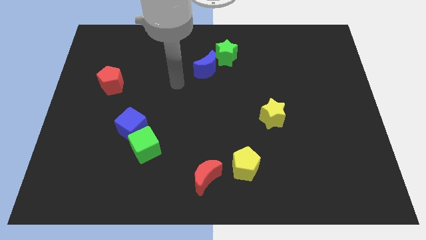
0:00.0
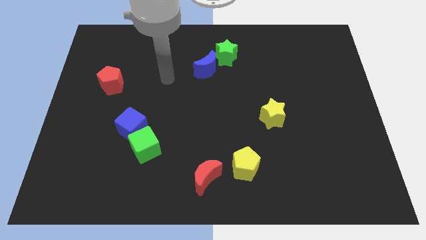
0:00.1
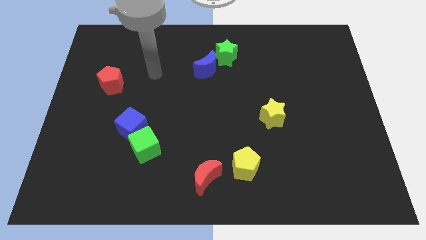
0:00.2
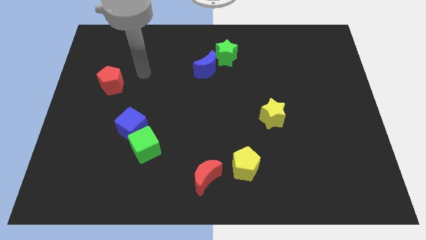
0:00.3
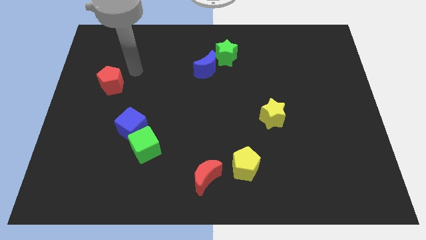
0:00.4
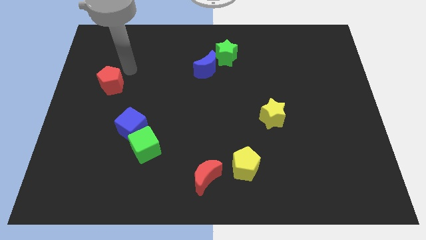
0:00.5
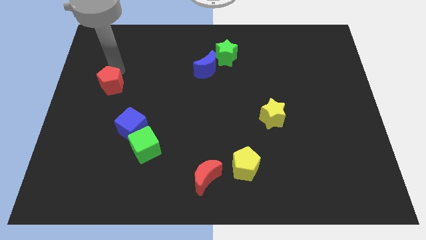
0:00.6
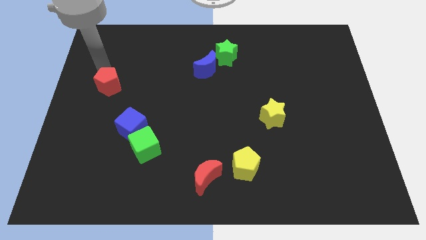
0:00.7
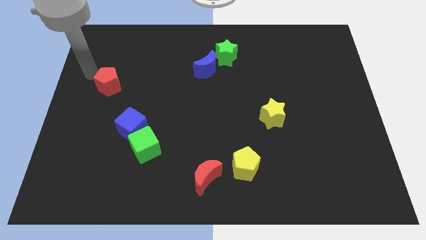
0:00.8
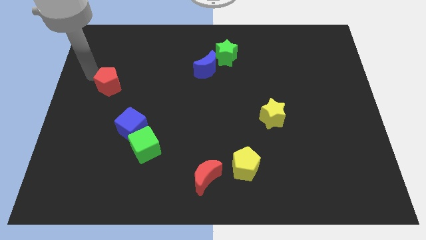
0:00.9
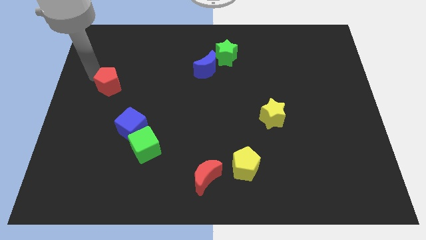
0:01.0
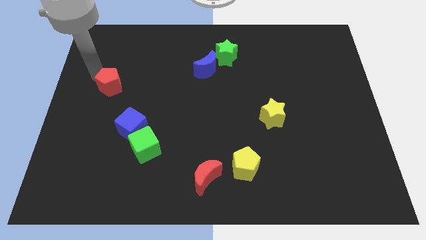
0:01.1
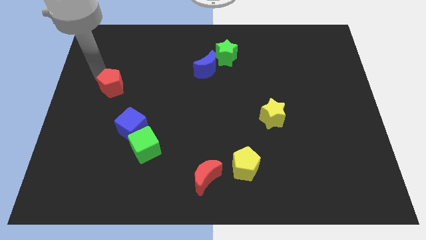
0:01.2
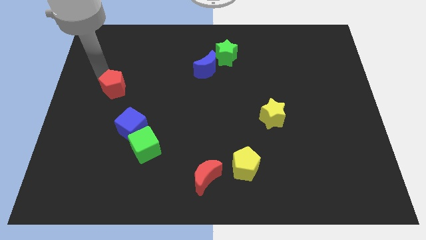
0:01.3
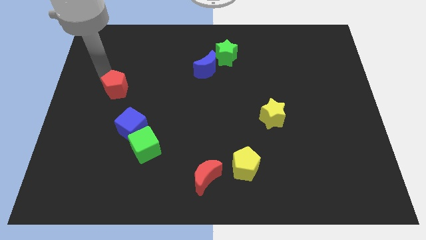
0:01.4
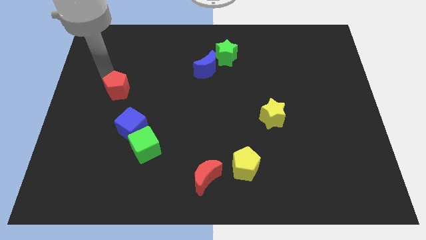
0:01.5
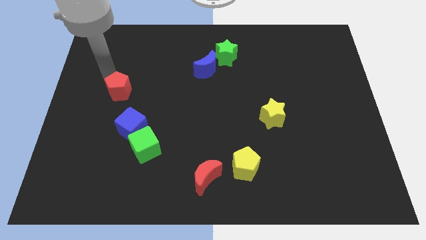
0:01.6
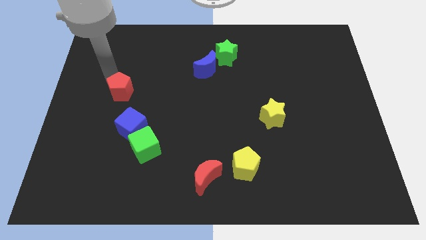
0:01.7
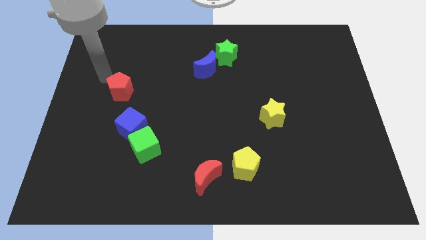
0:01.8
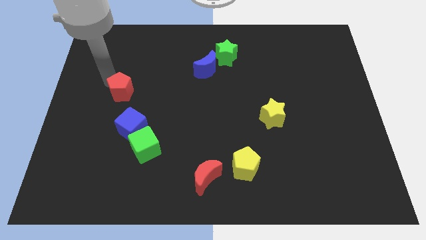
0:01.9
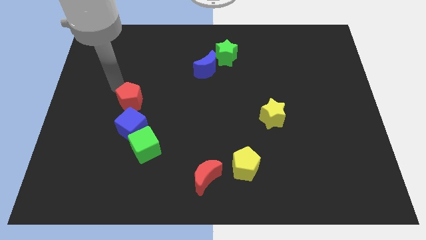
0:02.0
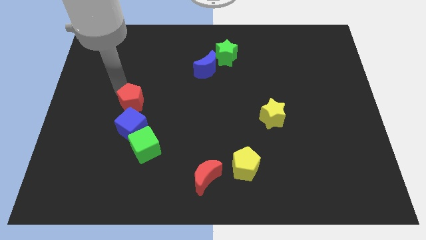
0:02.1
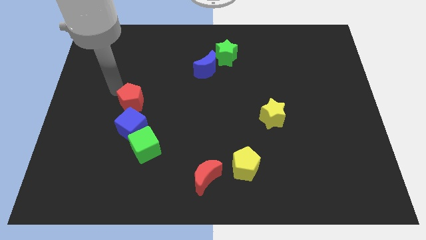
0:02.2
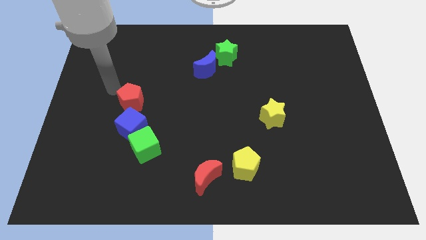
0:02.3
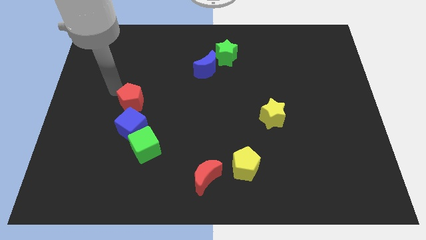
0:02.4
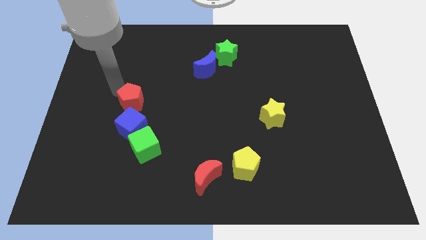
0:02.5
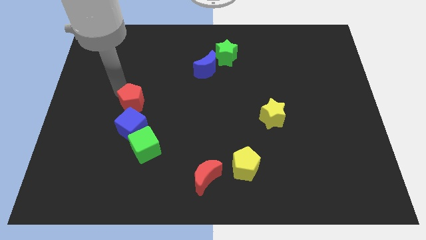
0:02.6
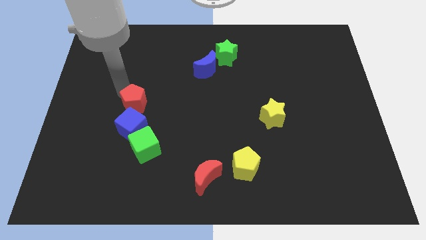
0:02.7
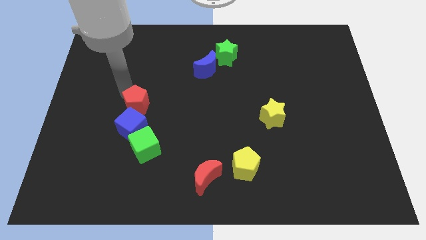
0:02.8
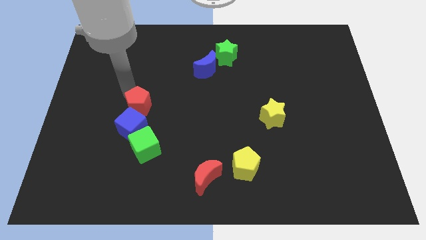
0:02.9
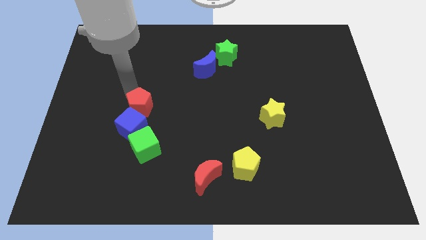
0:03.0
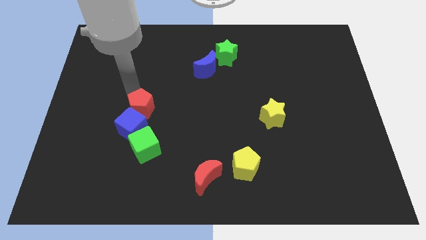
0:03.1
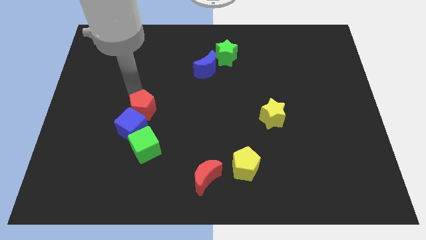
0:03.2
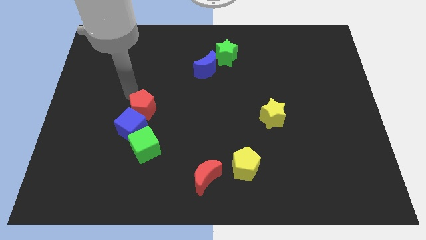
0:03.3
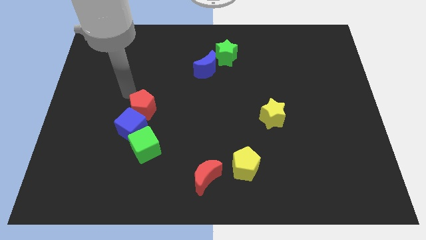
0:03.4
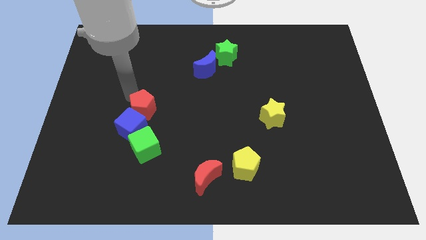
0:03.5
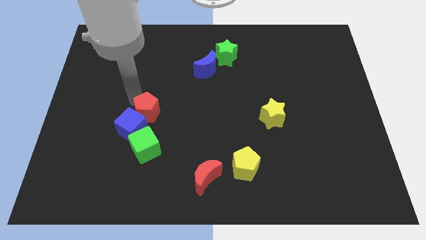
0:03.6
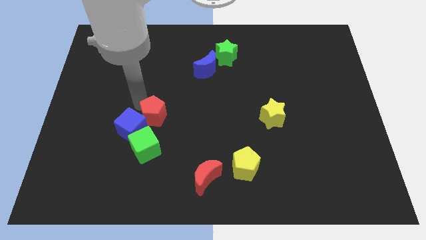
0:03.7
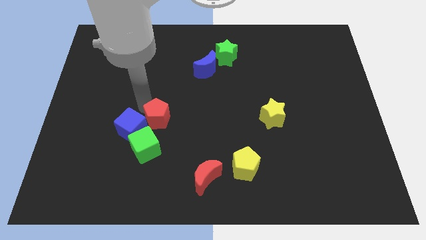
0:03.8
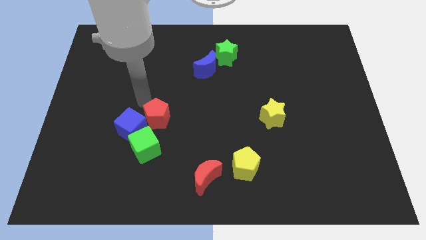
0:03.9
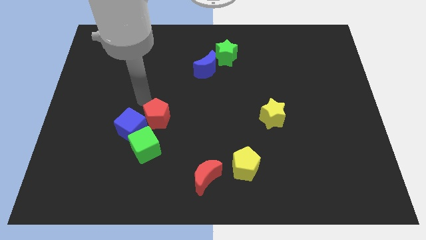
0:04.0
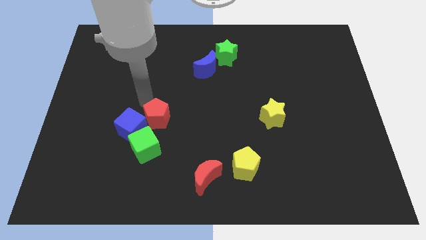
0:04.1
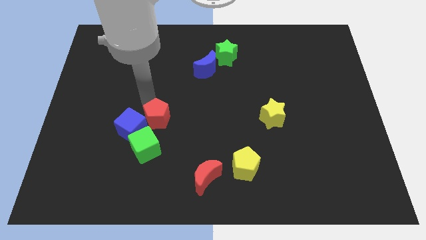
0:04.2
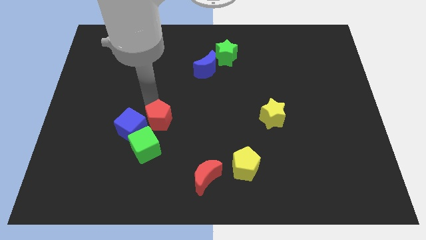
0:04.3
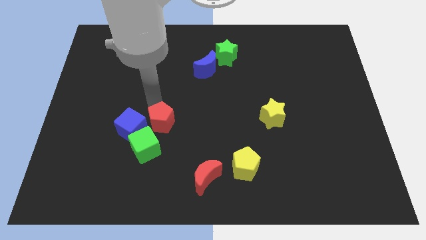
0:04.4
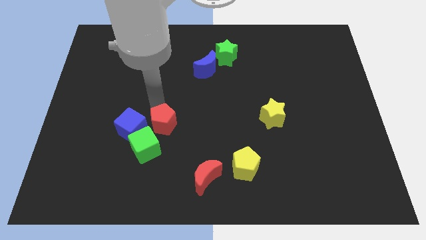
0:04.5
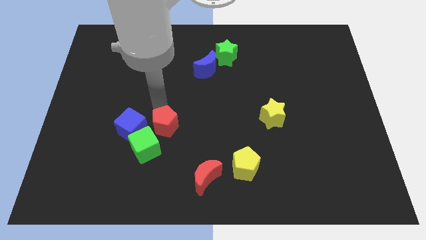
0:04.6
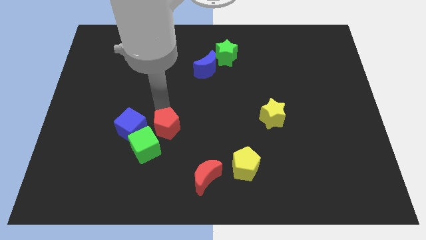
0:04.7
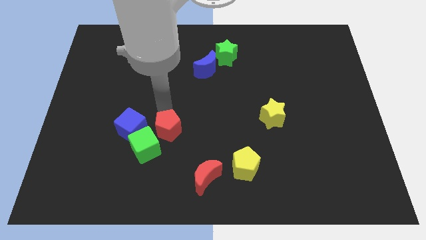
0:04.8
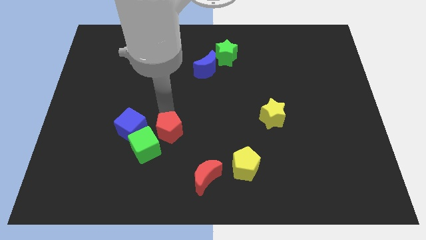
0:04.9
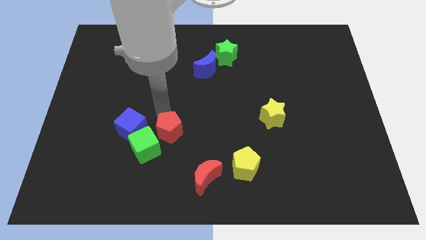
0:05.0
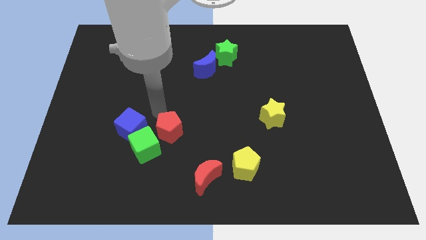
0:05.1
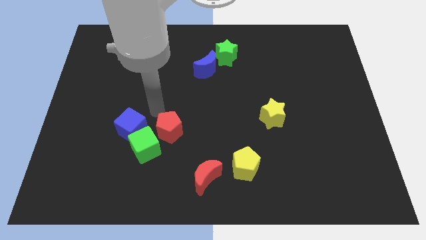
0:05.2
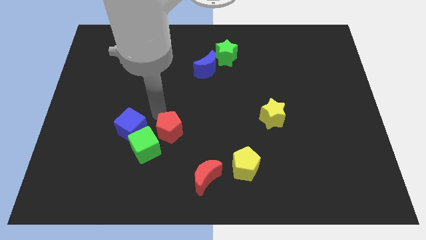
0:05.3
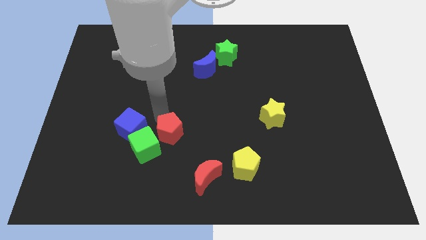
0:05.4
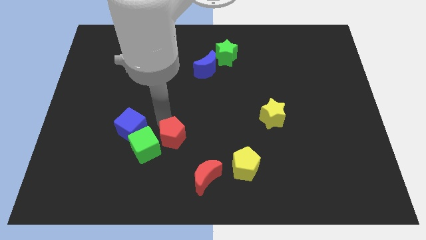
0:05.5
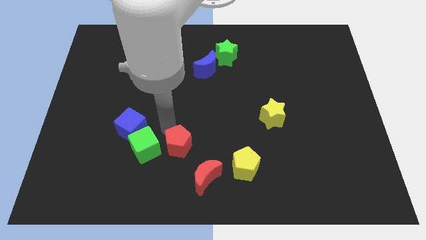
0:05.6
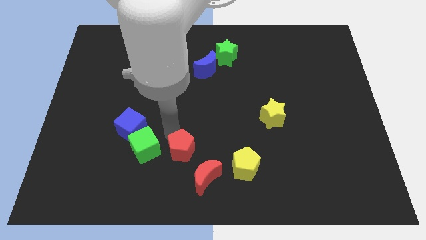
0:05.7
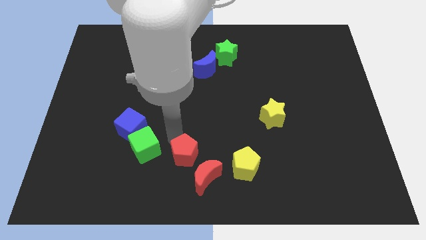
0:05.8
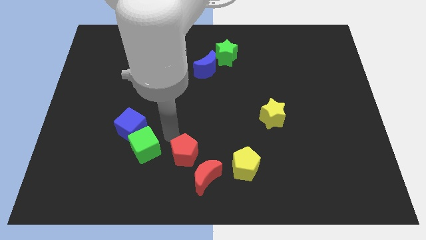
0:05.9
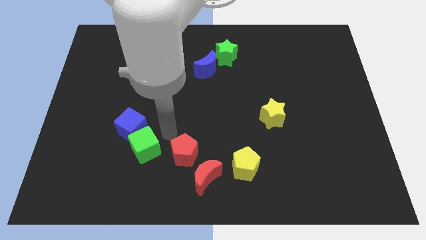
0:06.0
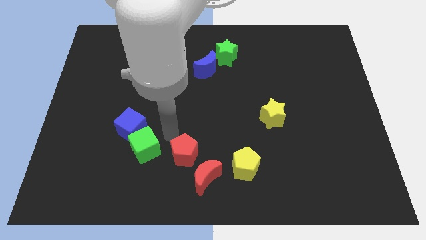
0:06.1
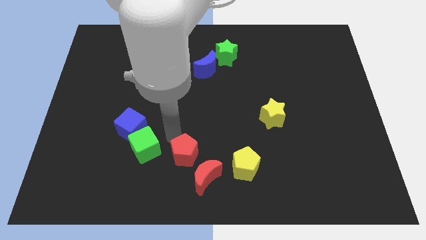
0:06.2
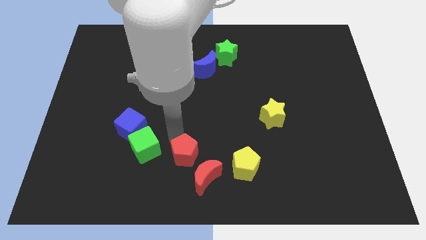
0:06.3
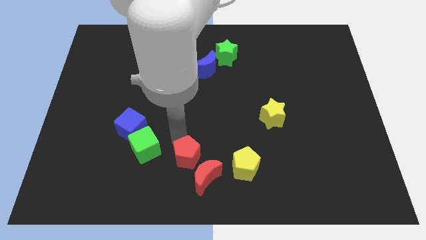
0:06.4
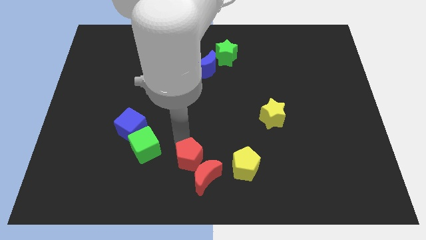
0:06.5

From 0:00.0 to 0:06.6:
push the red pentagon to the red moon
